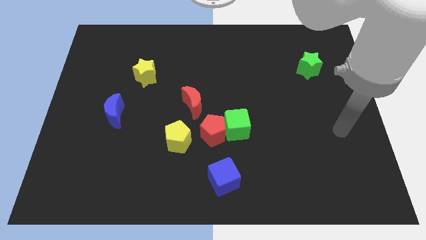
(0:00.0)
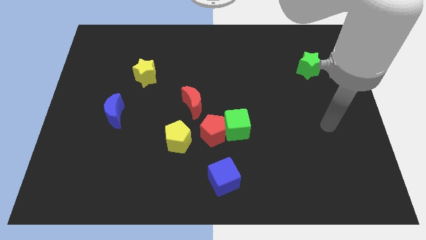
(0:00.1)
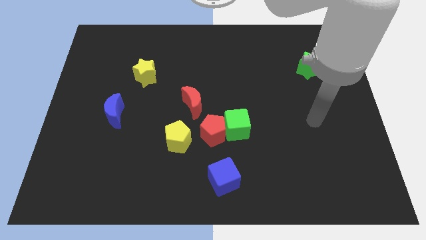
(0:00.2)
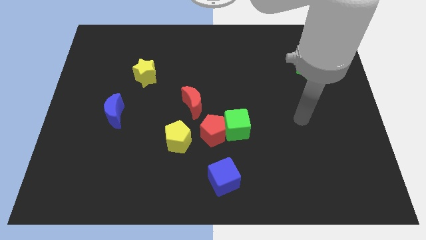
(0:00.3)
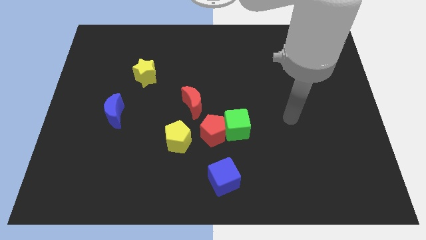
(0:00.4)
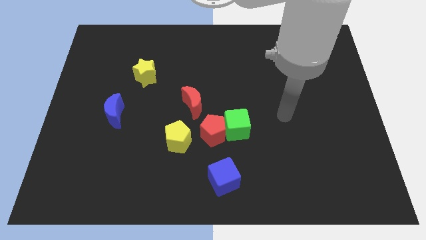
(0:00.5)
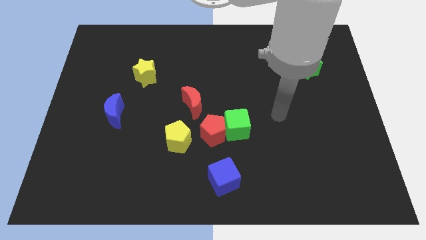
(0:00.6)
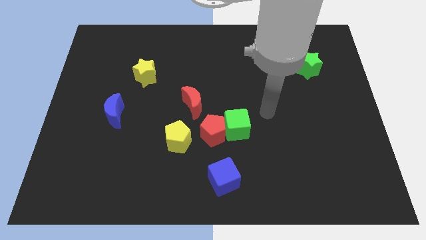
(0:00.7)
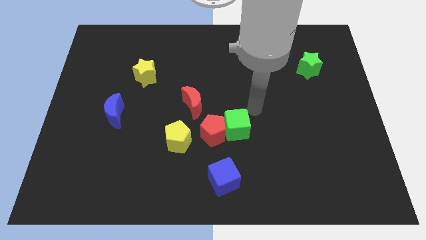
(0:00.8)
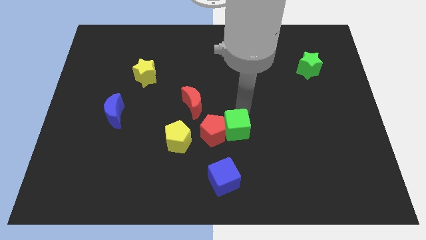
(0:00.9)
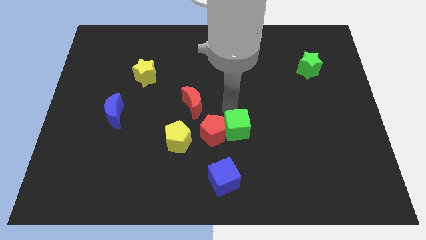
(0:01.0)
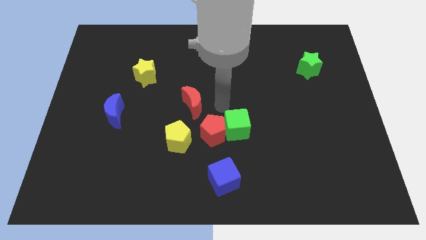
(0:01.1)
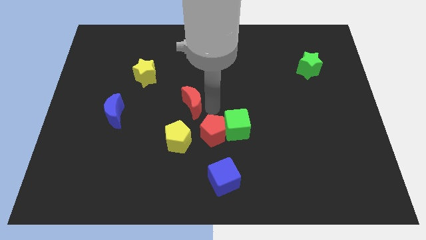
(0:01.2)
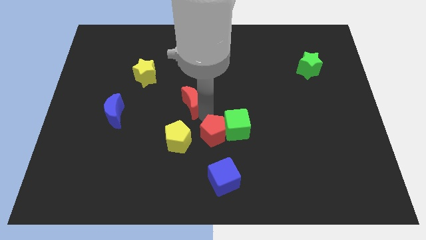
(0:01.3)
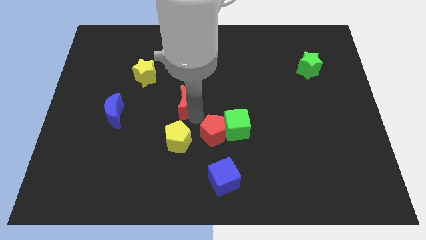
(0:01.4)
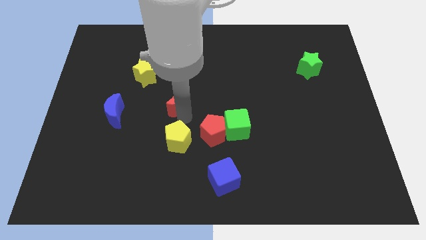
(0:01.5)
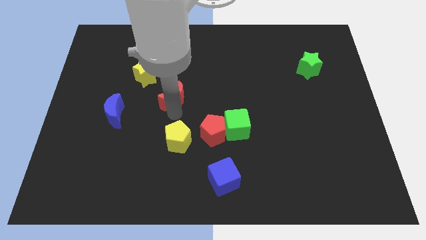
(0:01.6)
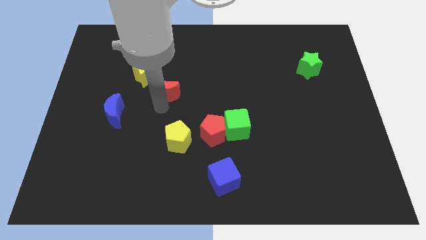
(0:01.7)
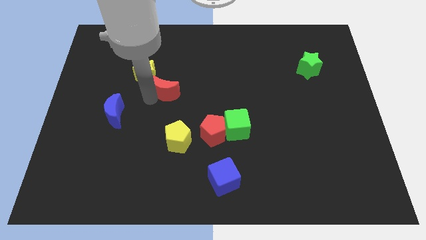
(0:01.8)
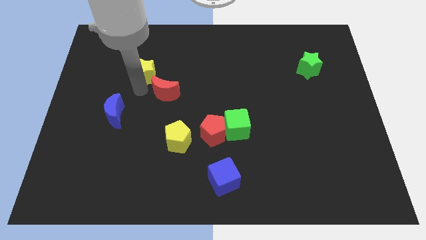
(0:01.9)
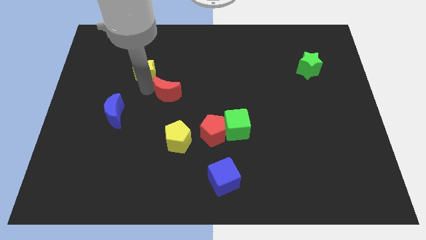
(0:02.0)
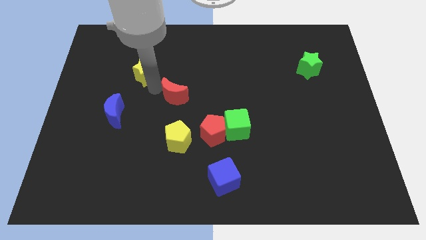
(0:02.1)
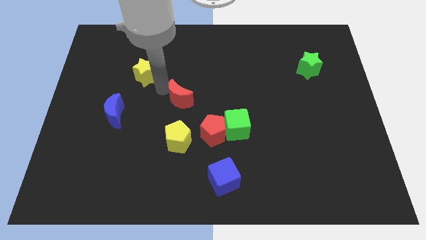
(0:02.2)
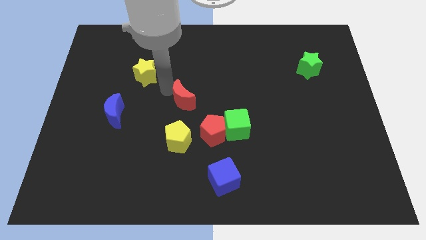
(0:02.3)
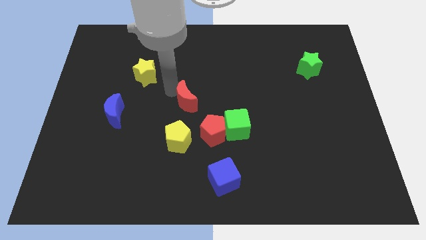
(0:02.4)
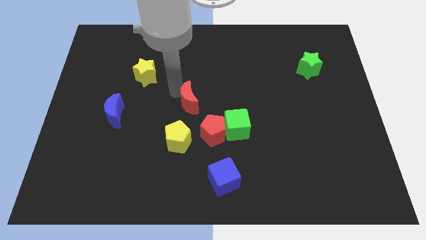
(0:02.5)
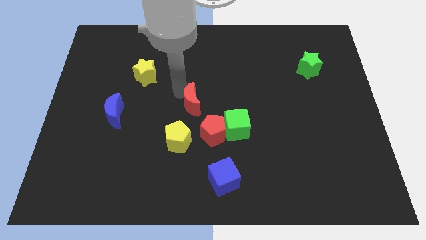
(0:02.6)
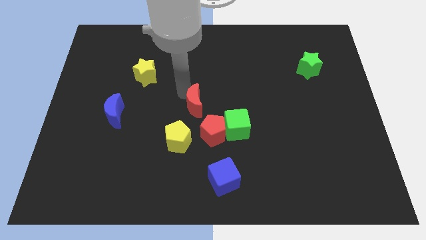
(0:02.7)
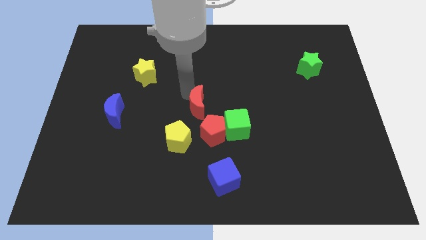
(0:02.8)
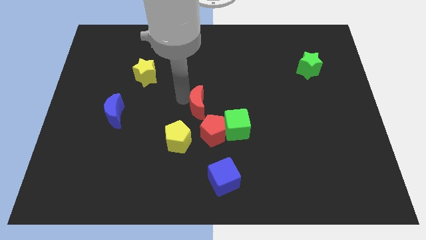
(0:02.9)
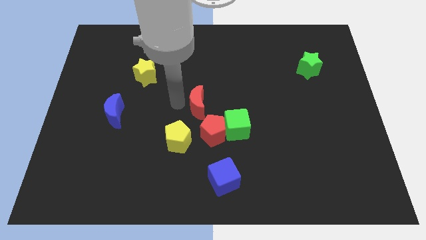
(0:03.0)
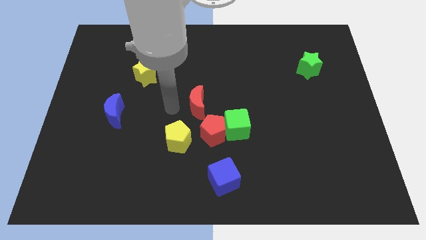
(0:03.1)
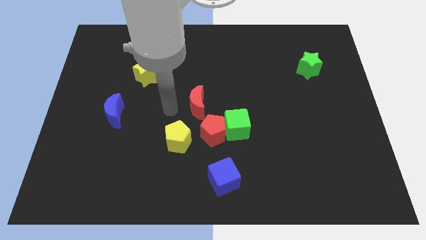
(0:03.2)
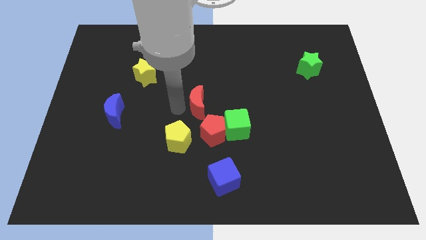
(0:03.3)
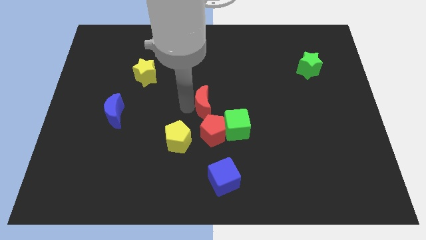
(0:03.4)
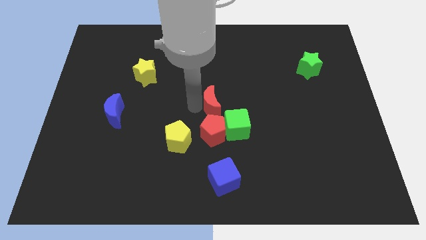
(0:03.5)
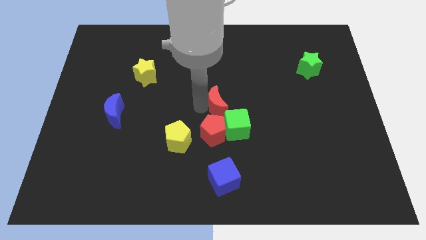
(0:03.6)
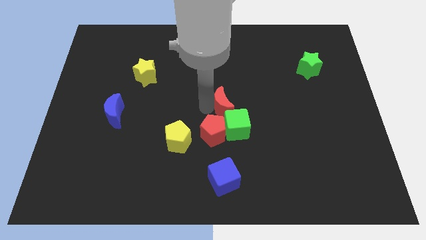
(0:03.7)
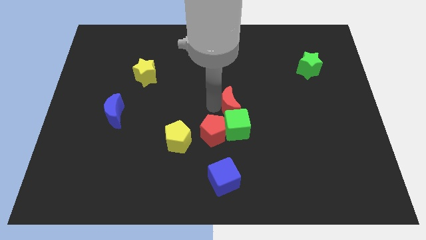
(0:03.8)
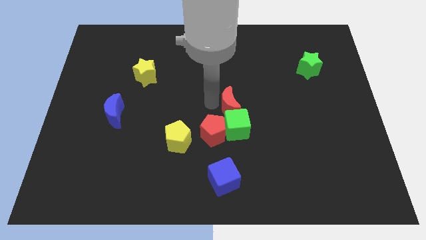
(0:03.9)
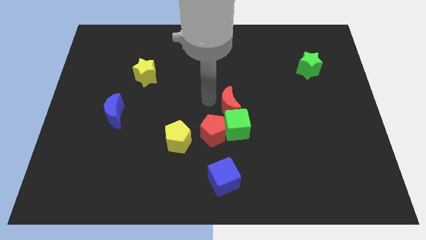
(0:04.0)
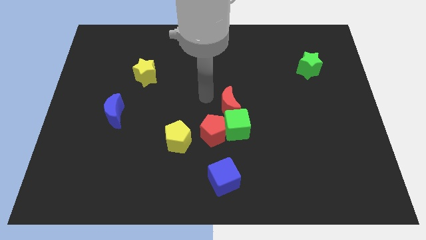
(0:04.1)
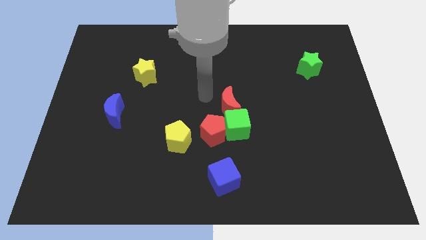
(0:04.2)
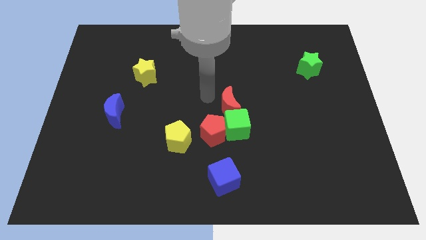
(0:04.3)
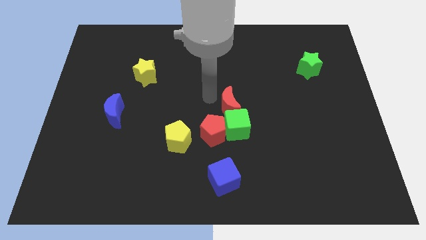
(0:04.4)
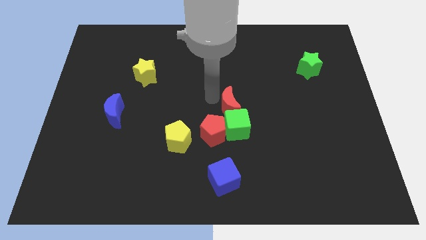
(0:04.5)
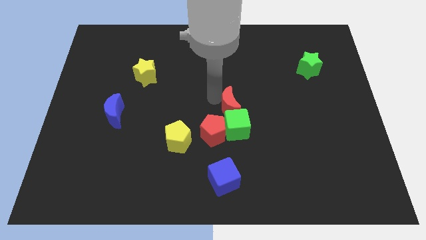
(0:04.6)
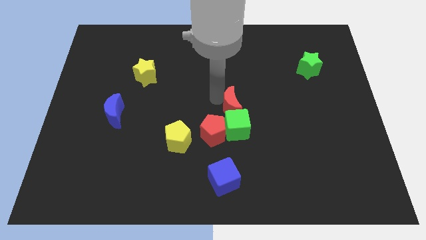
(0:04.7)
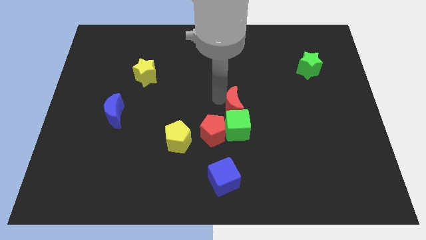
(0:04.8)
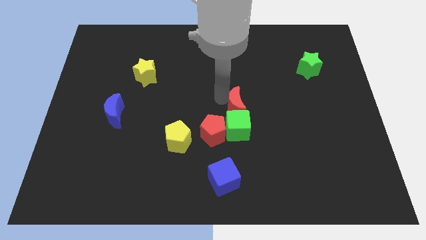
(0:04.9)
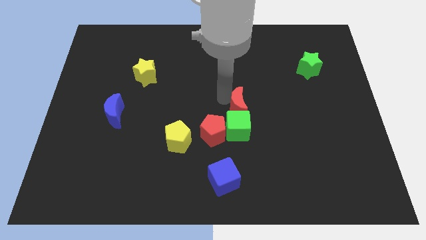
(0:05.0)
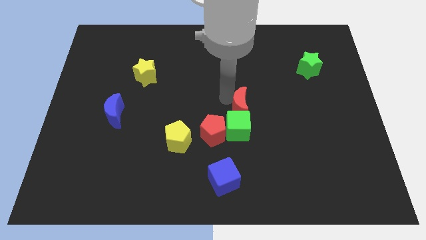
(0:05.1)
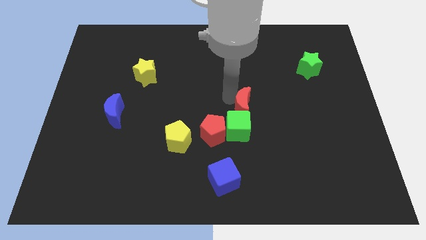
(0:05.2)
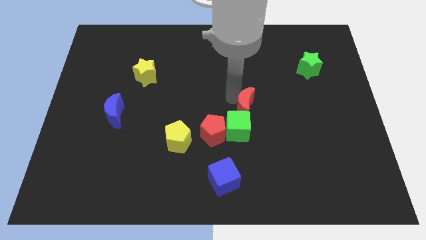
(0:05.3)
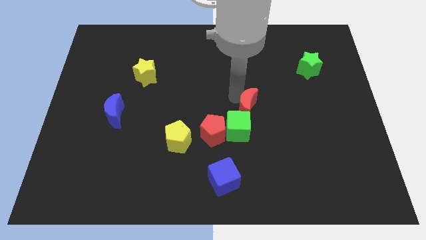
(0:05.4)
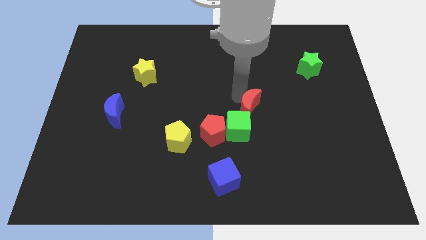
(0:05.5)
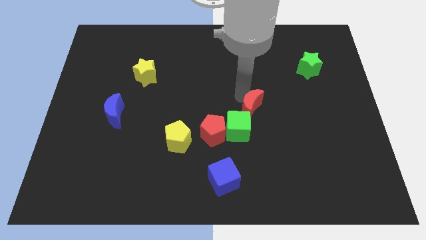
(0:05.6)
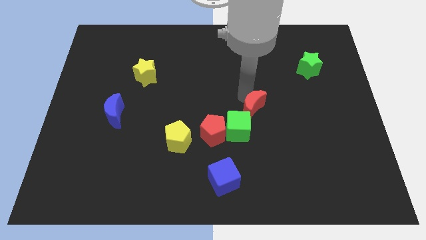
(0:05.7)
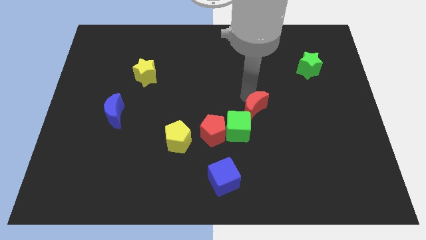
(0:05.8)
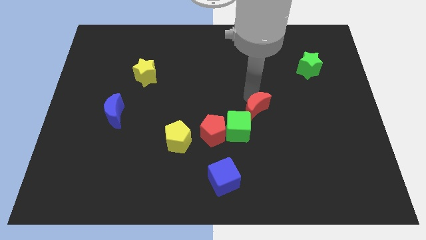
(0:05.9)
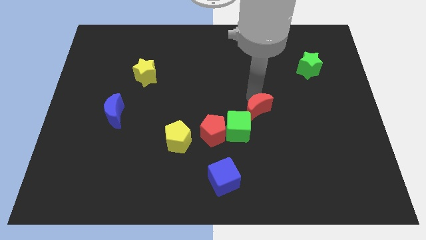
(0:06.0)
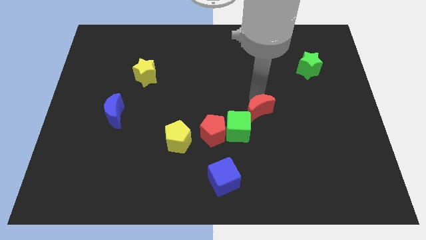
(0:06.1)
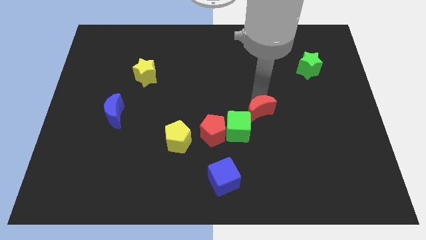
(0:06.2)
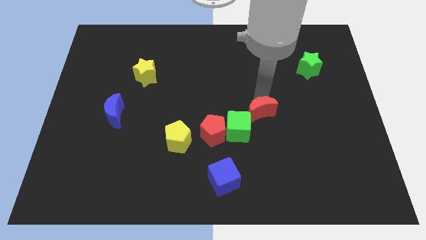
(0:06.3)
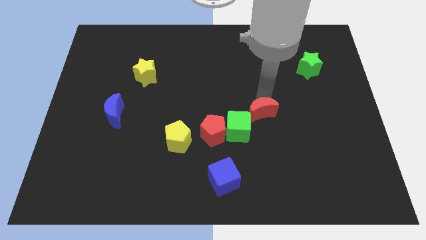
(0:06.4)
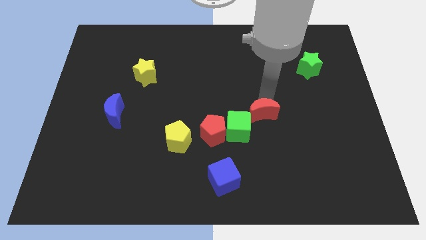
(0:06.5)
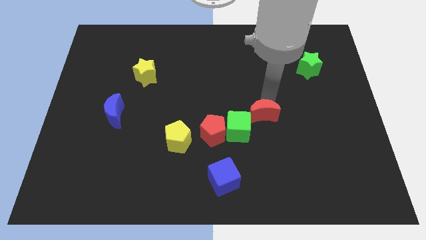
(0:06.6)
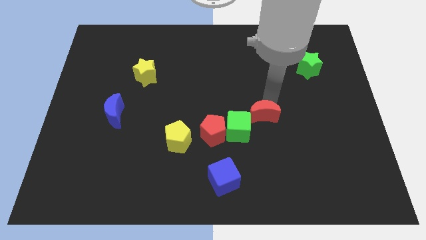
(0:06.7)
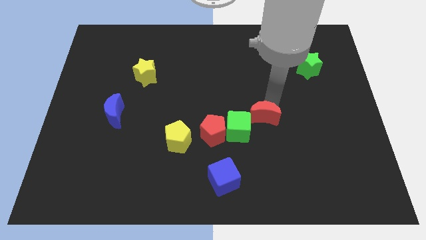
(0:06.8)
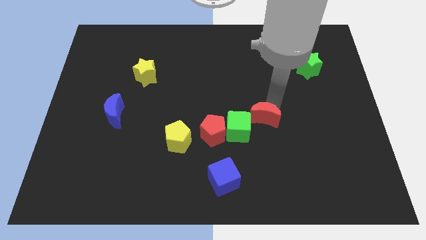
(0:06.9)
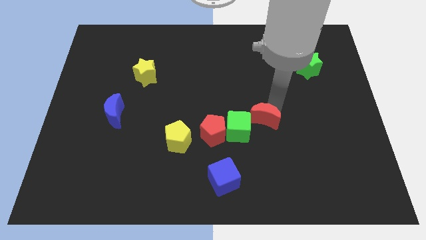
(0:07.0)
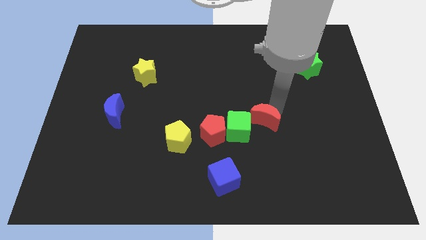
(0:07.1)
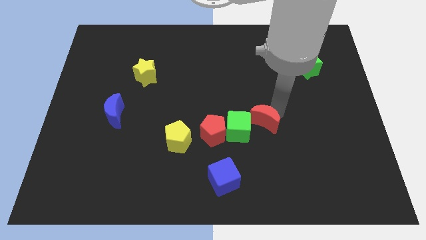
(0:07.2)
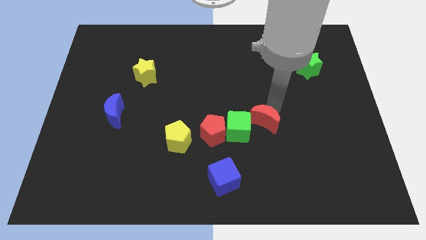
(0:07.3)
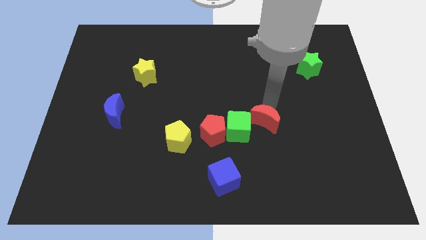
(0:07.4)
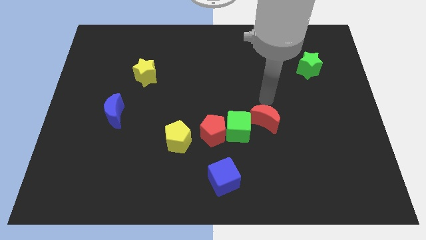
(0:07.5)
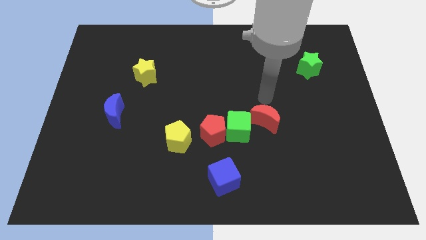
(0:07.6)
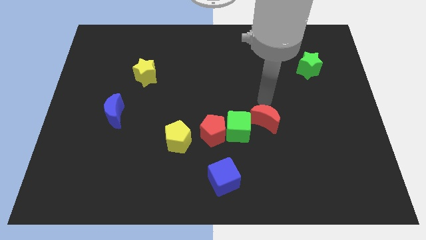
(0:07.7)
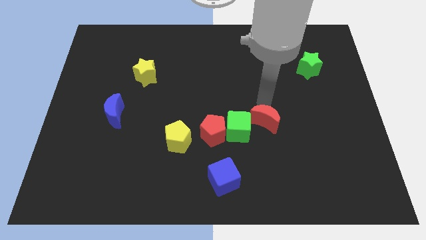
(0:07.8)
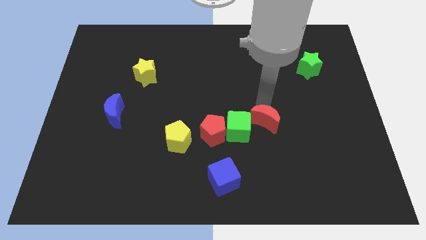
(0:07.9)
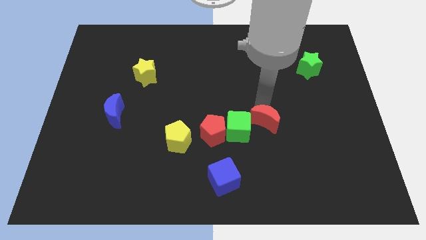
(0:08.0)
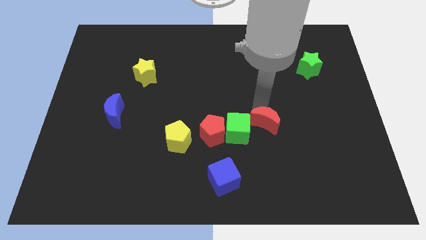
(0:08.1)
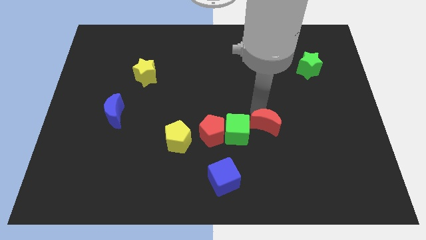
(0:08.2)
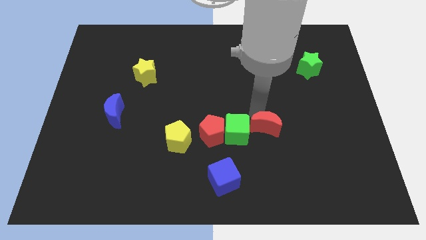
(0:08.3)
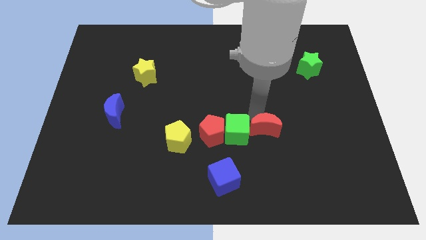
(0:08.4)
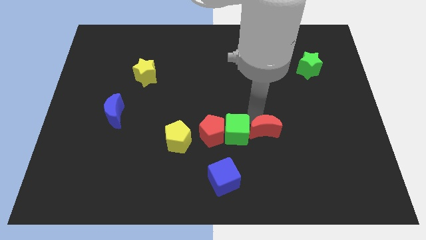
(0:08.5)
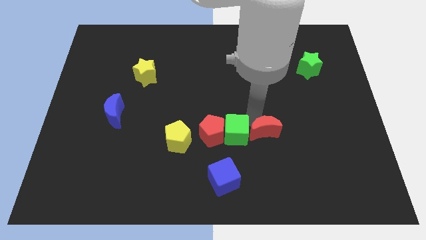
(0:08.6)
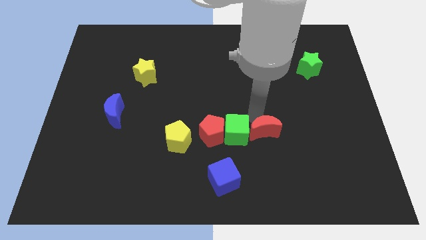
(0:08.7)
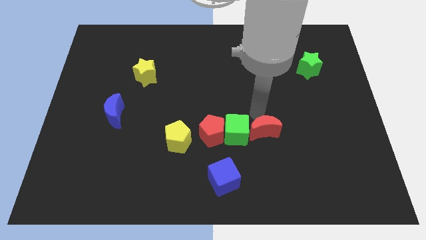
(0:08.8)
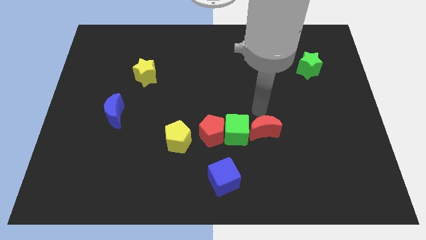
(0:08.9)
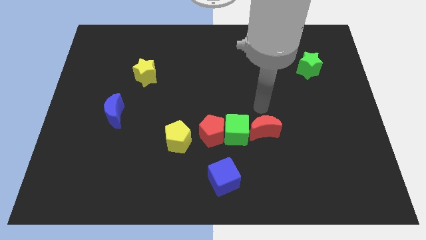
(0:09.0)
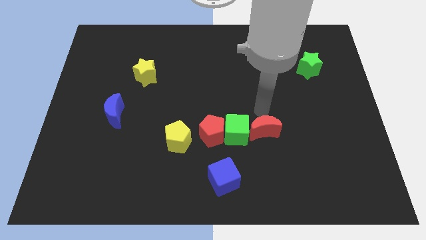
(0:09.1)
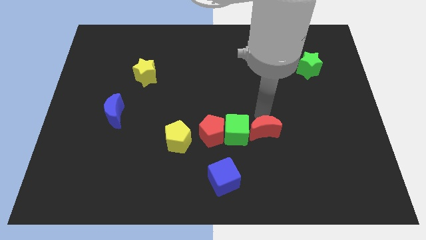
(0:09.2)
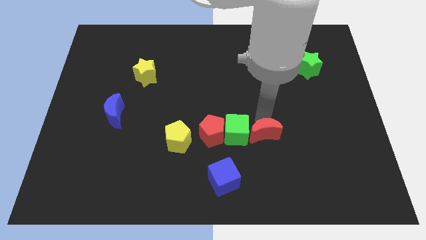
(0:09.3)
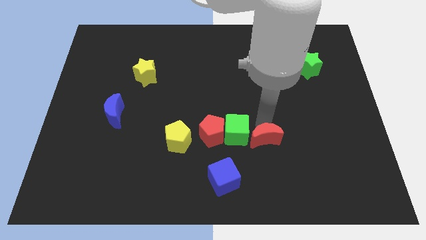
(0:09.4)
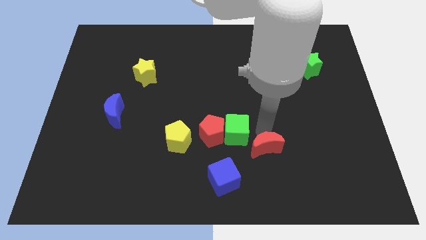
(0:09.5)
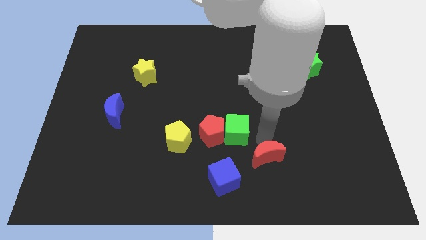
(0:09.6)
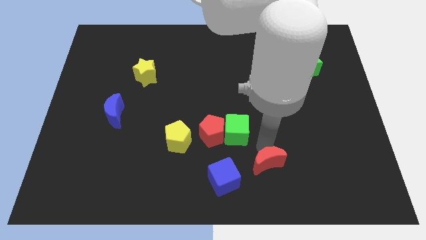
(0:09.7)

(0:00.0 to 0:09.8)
push the red moon just right of the blue cube
